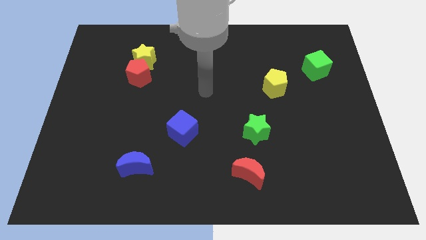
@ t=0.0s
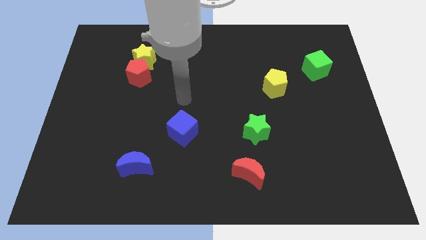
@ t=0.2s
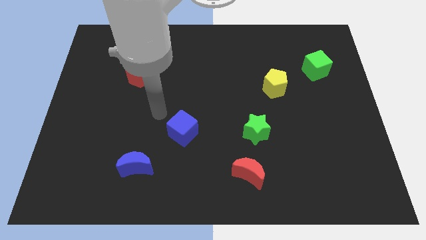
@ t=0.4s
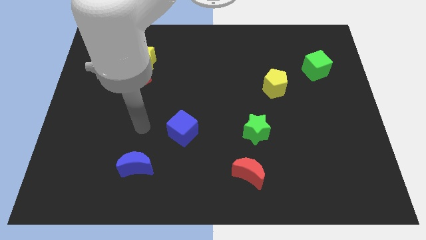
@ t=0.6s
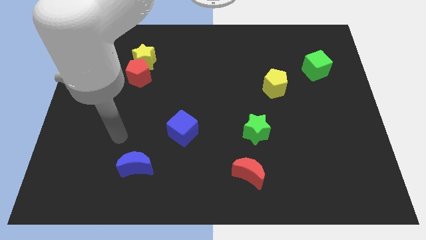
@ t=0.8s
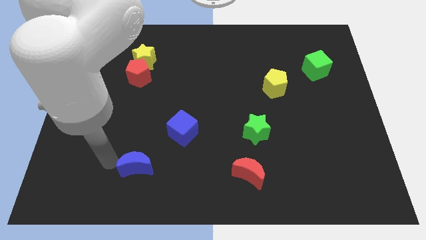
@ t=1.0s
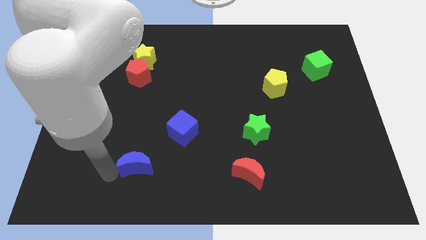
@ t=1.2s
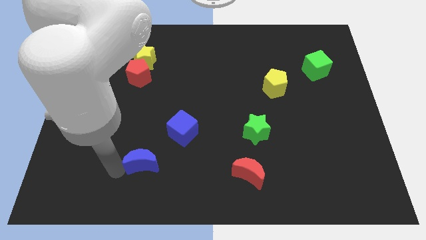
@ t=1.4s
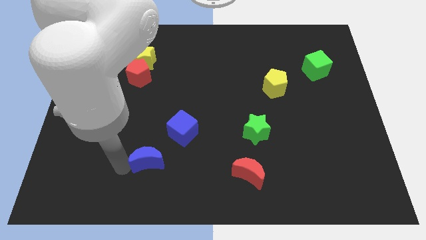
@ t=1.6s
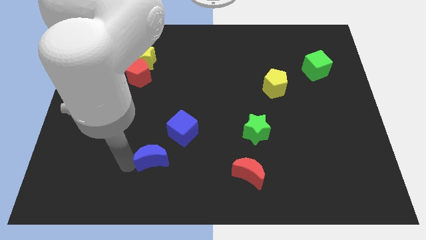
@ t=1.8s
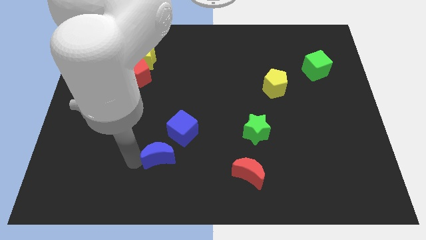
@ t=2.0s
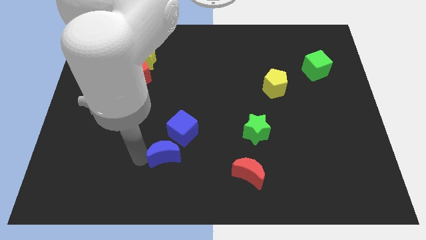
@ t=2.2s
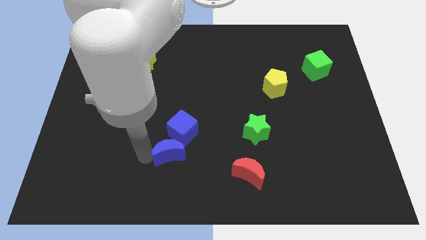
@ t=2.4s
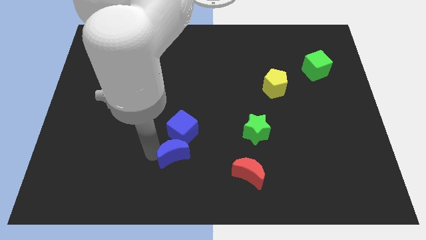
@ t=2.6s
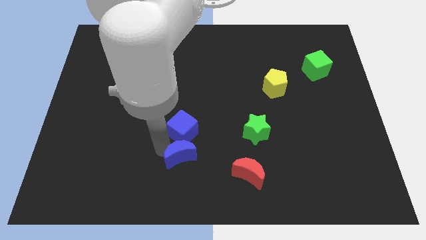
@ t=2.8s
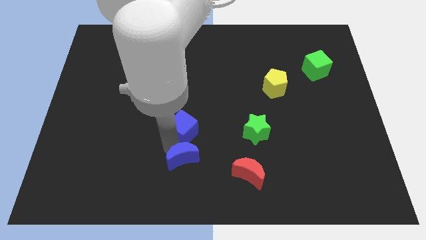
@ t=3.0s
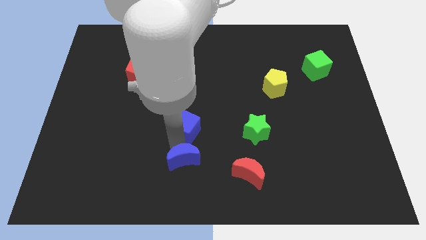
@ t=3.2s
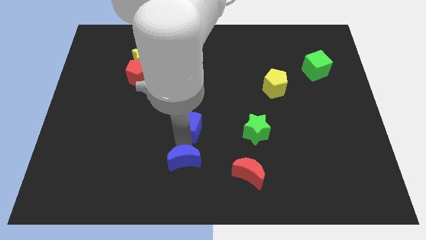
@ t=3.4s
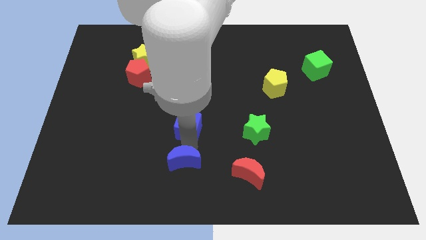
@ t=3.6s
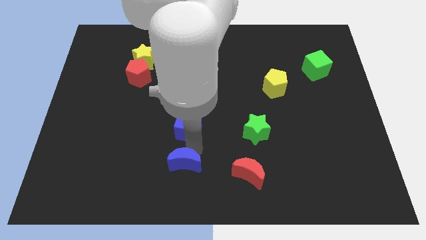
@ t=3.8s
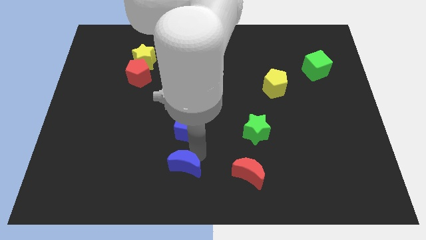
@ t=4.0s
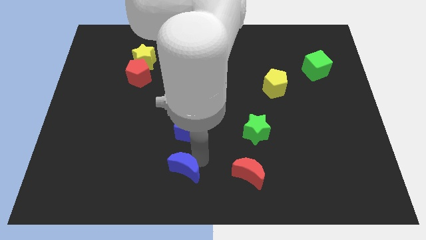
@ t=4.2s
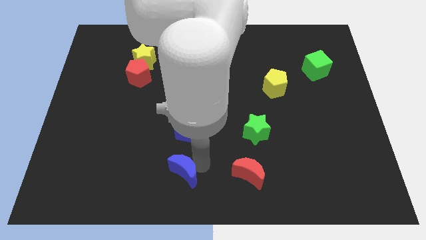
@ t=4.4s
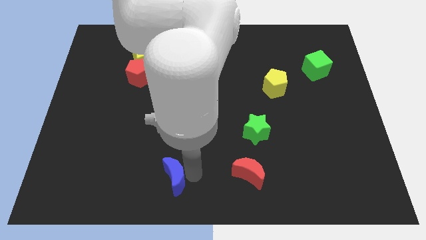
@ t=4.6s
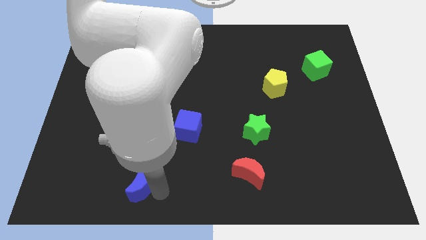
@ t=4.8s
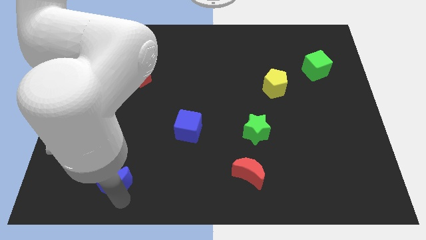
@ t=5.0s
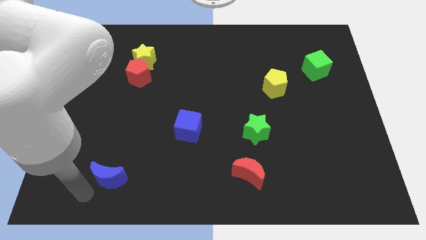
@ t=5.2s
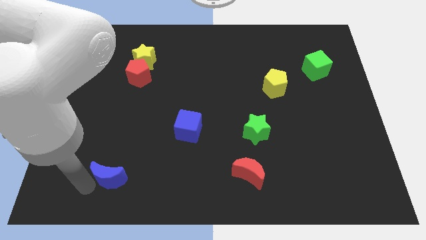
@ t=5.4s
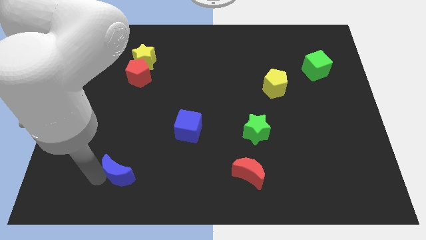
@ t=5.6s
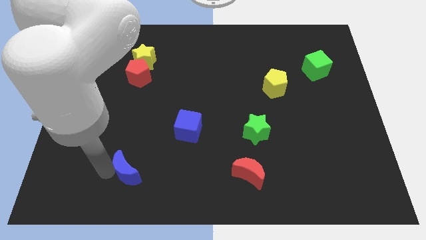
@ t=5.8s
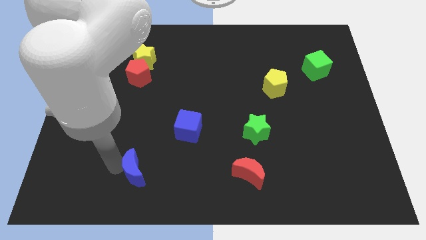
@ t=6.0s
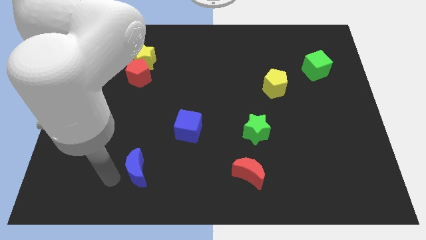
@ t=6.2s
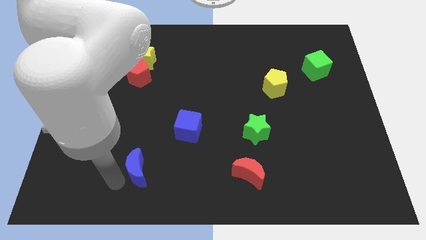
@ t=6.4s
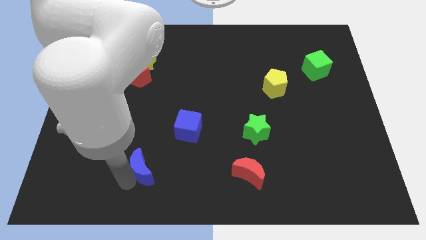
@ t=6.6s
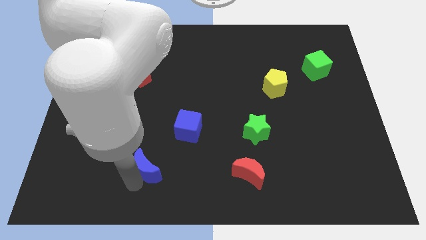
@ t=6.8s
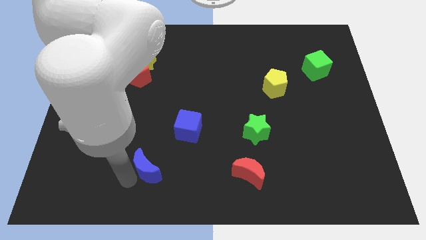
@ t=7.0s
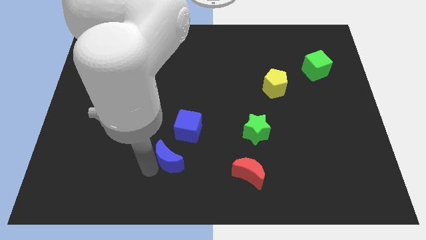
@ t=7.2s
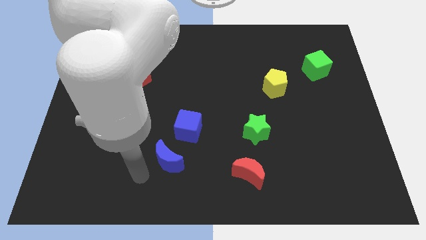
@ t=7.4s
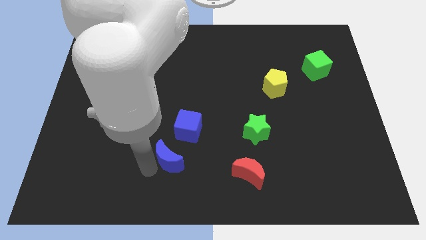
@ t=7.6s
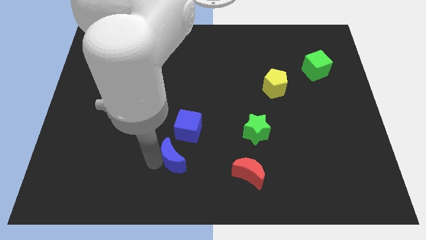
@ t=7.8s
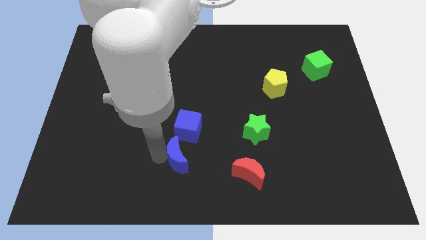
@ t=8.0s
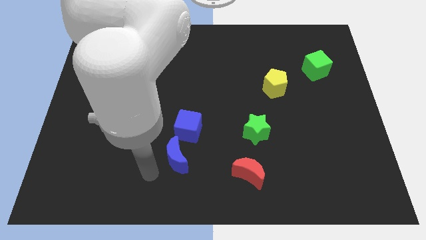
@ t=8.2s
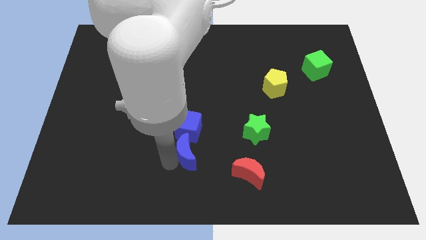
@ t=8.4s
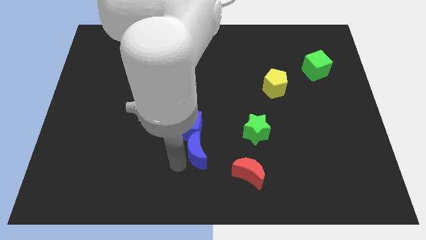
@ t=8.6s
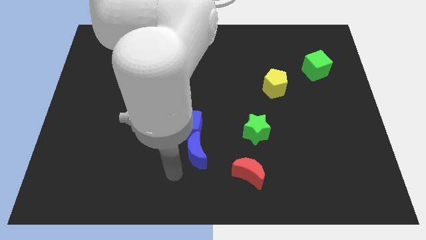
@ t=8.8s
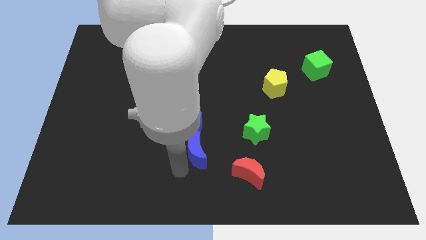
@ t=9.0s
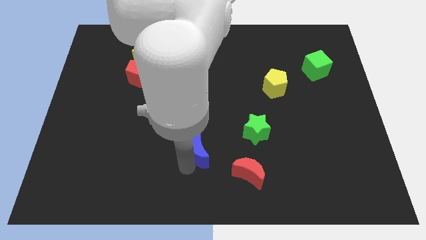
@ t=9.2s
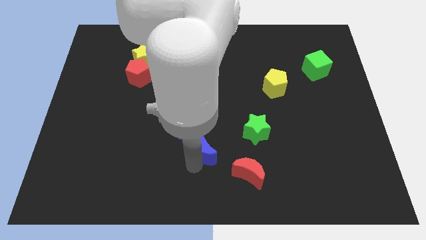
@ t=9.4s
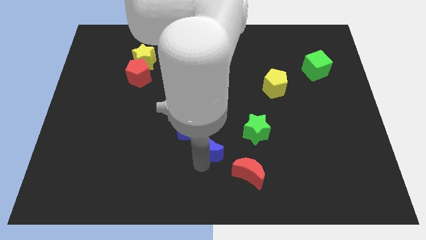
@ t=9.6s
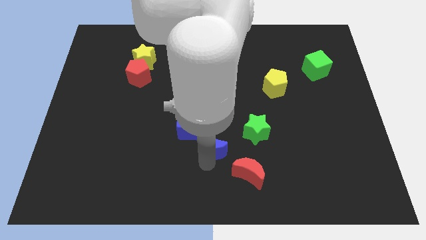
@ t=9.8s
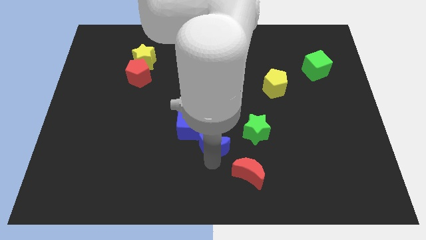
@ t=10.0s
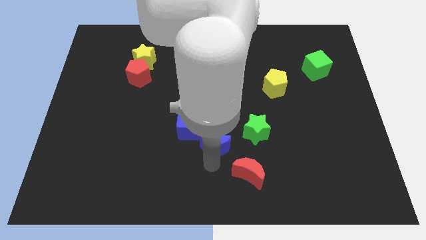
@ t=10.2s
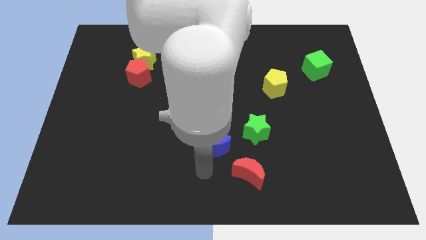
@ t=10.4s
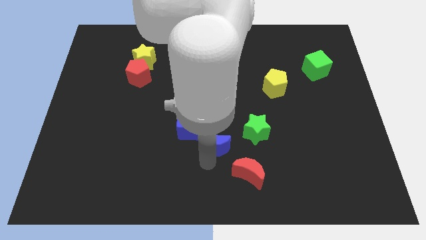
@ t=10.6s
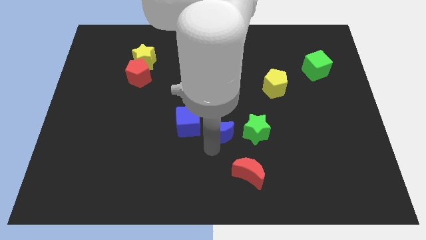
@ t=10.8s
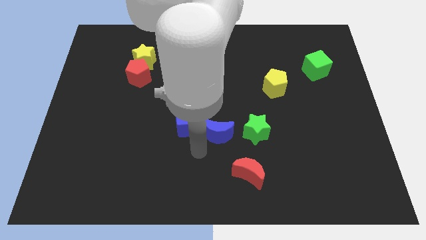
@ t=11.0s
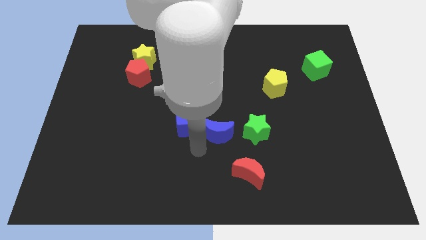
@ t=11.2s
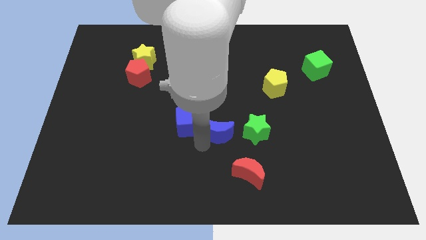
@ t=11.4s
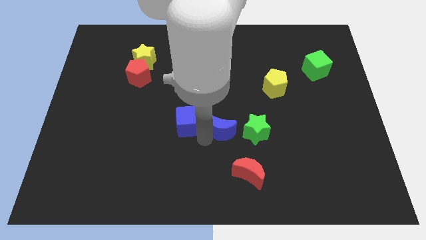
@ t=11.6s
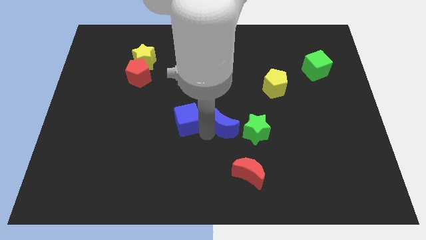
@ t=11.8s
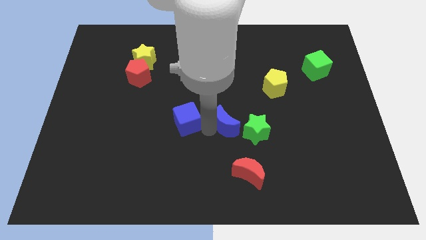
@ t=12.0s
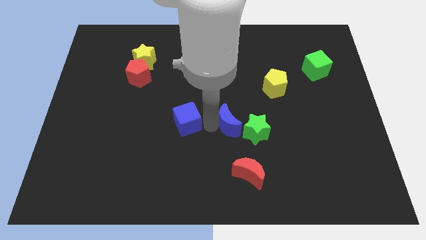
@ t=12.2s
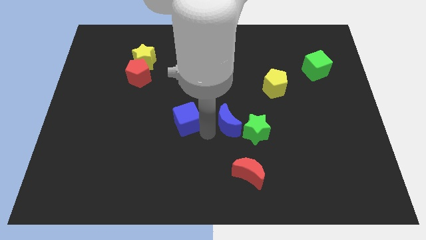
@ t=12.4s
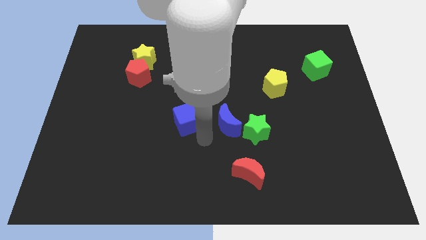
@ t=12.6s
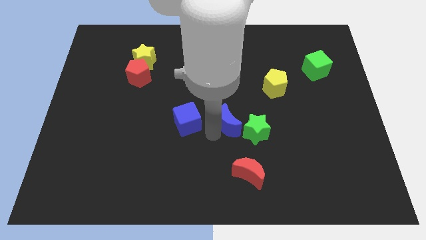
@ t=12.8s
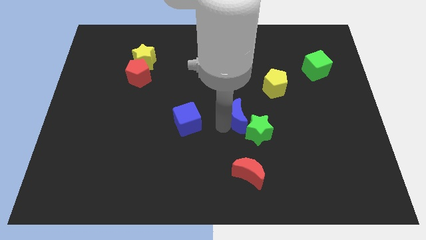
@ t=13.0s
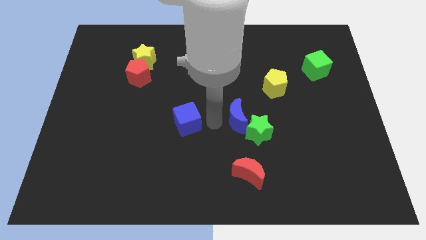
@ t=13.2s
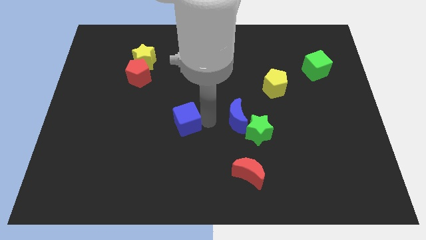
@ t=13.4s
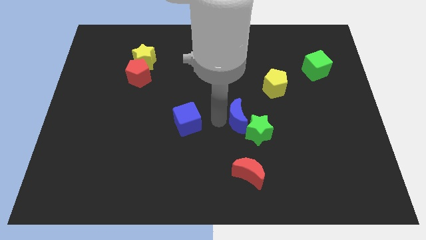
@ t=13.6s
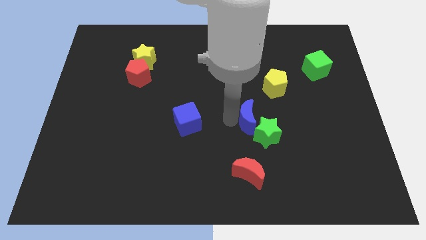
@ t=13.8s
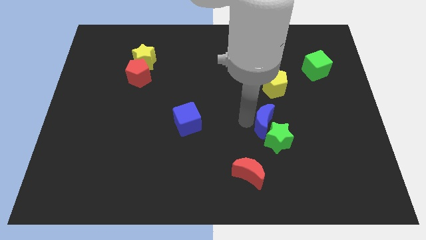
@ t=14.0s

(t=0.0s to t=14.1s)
put the blue moon to the bottom side of the yellow pentagon
